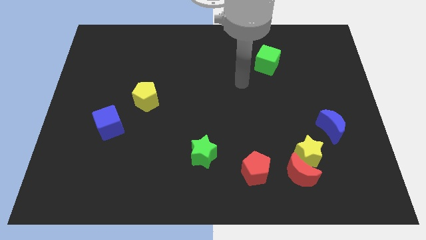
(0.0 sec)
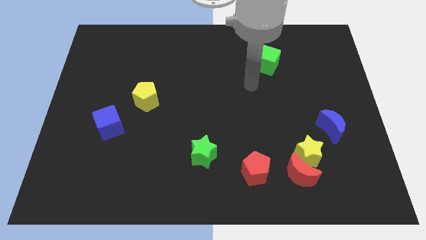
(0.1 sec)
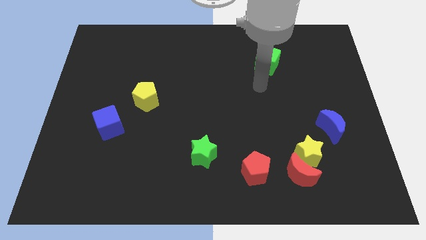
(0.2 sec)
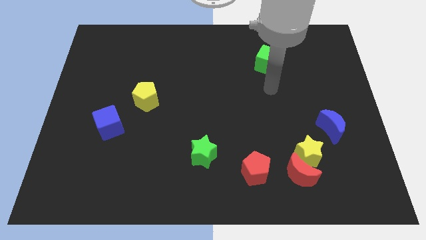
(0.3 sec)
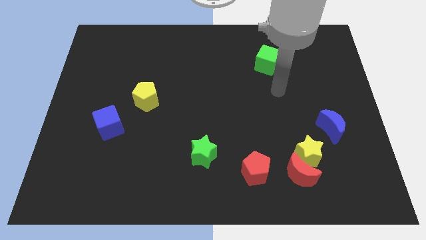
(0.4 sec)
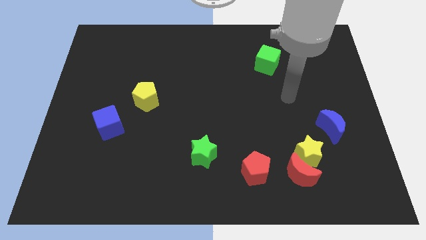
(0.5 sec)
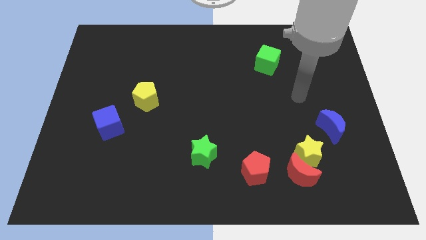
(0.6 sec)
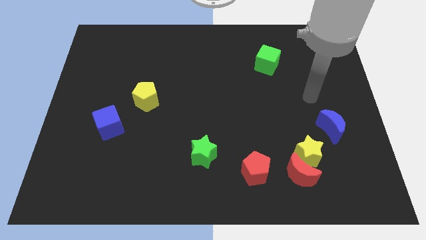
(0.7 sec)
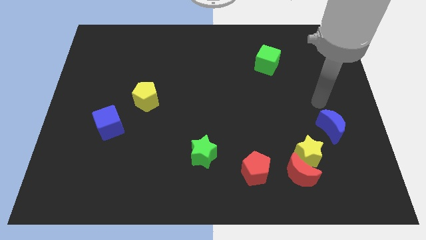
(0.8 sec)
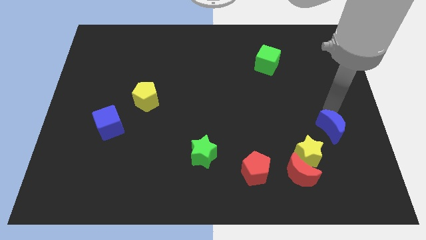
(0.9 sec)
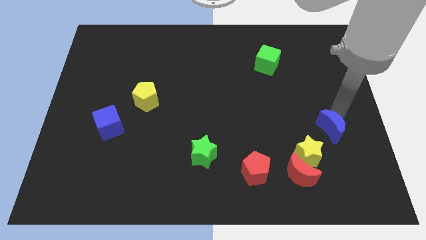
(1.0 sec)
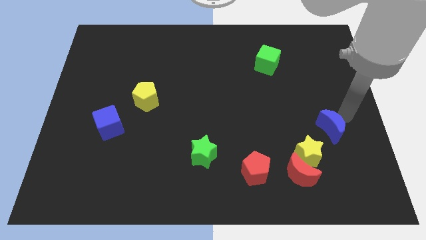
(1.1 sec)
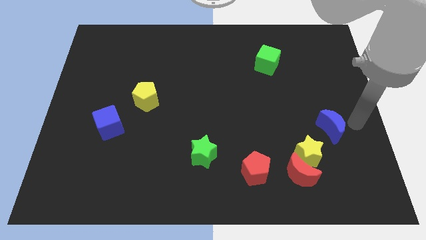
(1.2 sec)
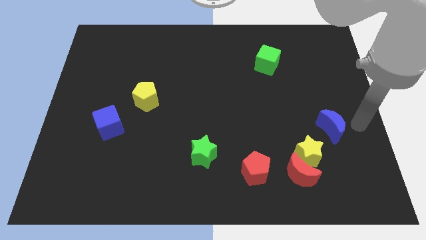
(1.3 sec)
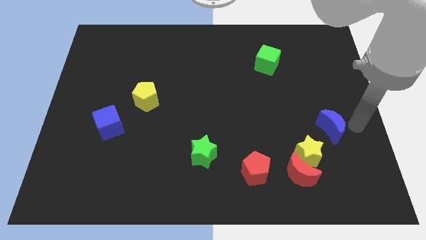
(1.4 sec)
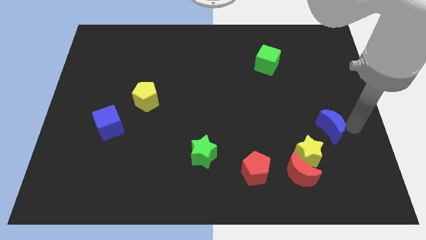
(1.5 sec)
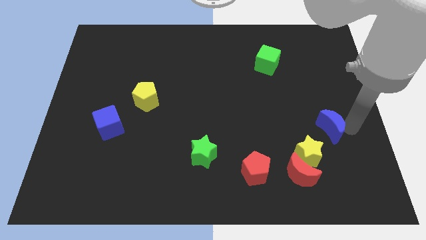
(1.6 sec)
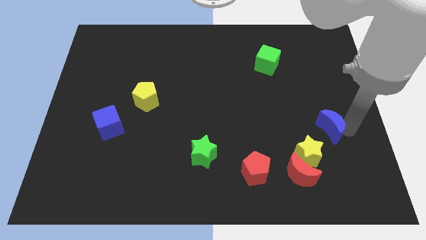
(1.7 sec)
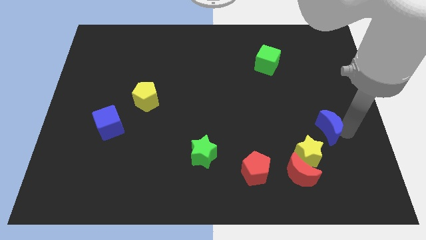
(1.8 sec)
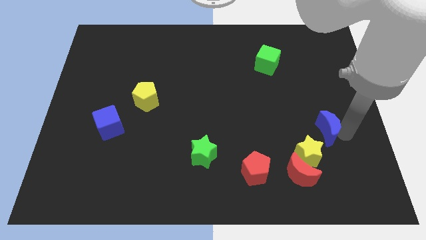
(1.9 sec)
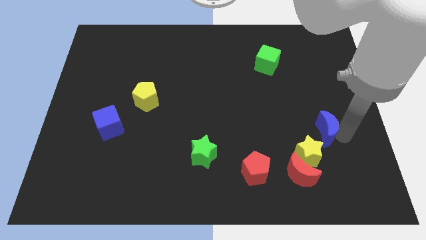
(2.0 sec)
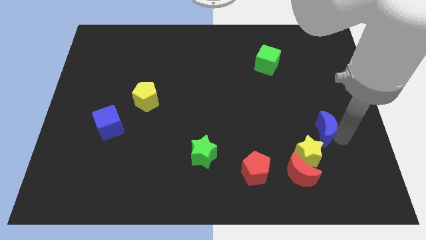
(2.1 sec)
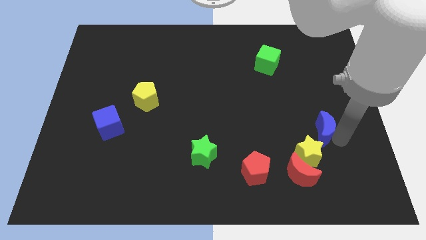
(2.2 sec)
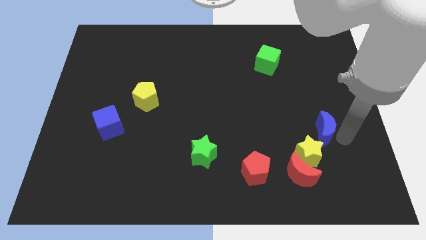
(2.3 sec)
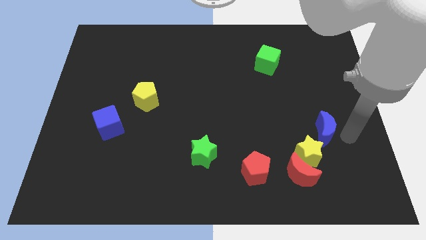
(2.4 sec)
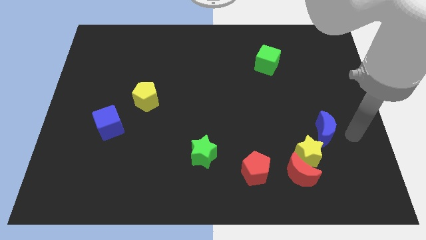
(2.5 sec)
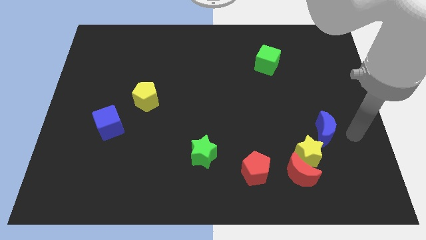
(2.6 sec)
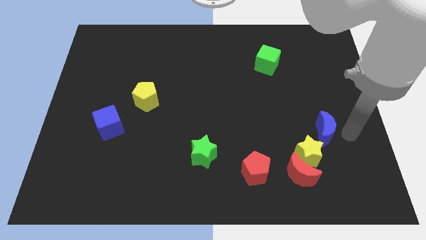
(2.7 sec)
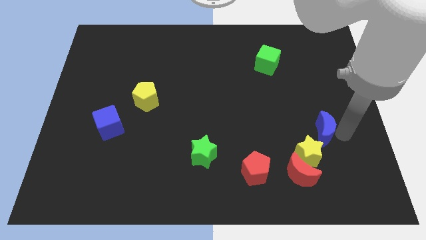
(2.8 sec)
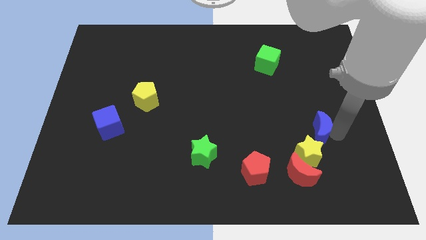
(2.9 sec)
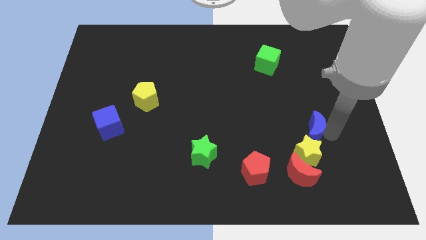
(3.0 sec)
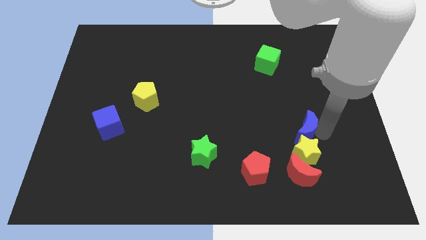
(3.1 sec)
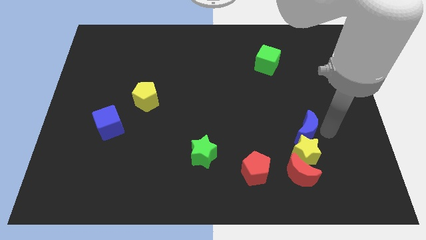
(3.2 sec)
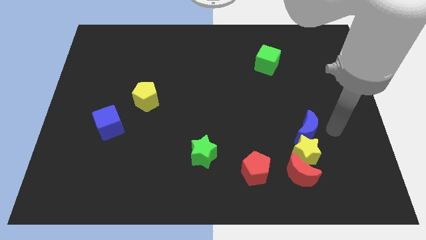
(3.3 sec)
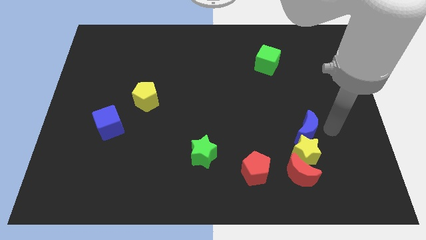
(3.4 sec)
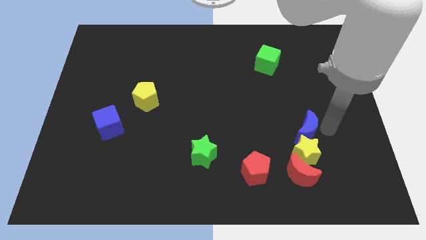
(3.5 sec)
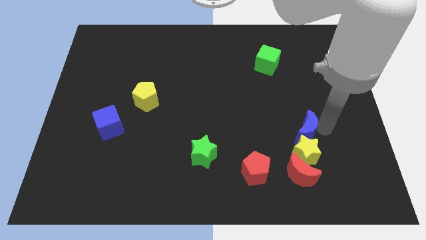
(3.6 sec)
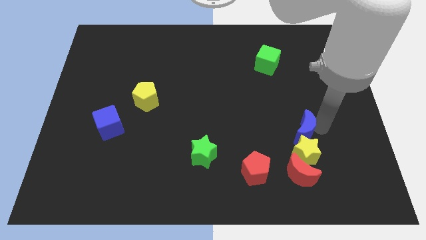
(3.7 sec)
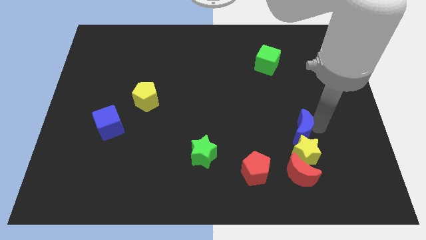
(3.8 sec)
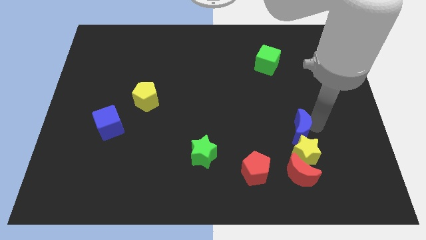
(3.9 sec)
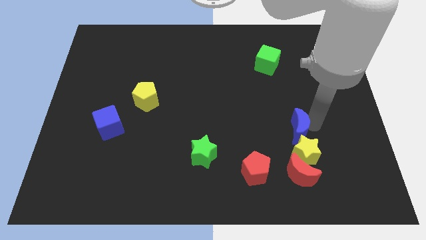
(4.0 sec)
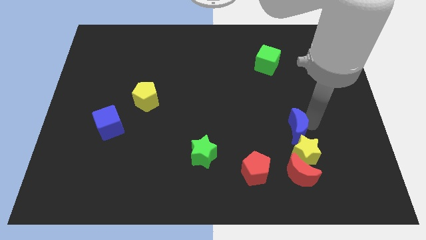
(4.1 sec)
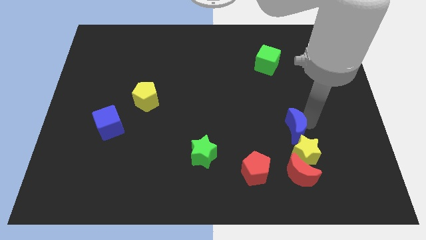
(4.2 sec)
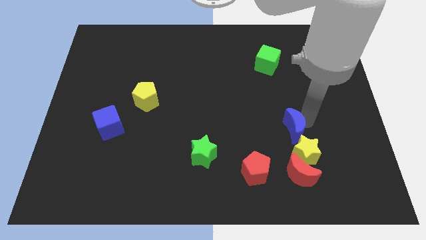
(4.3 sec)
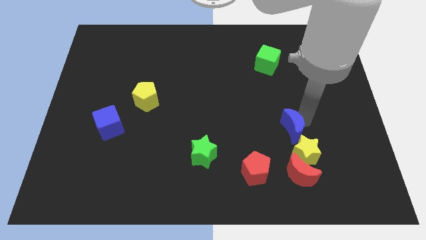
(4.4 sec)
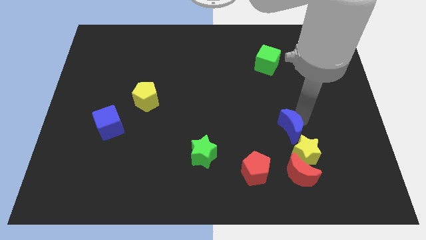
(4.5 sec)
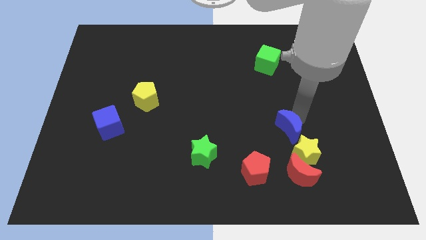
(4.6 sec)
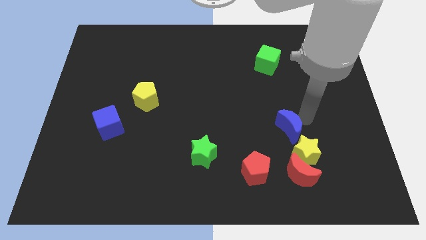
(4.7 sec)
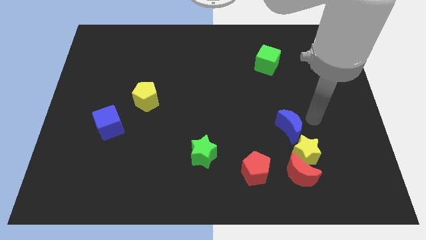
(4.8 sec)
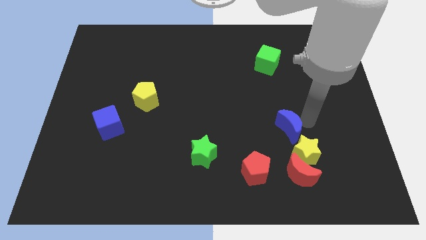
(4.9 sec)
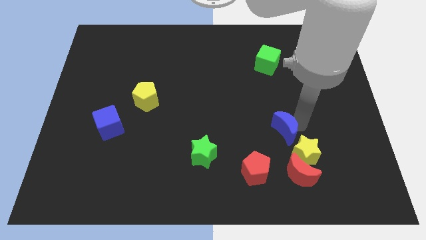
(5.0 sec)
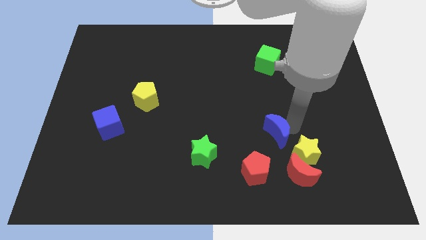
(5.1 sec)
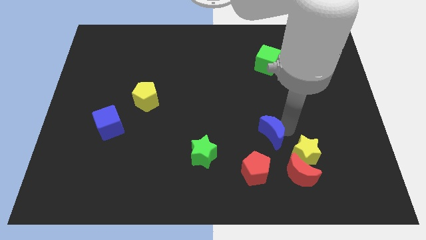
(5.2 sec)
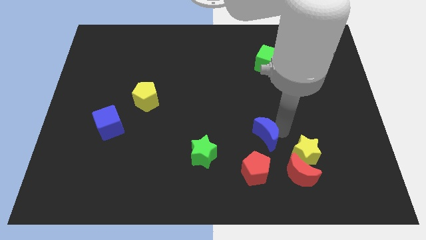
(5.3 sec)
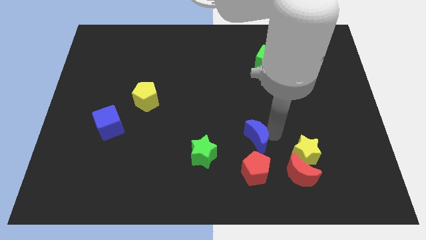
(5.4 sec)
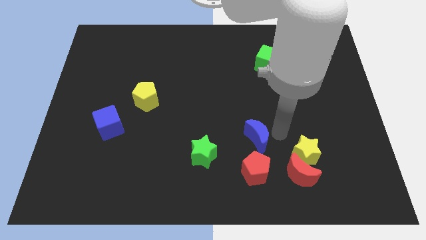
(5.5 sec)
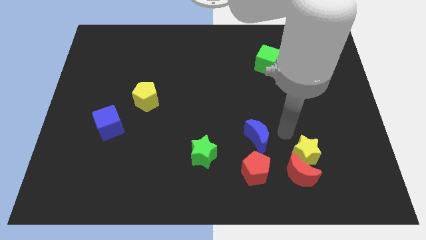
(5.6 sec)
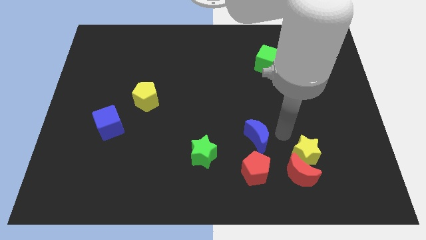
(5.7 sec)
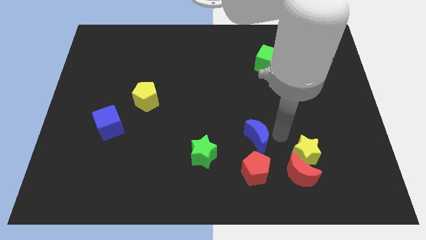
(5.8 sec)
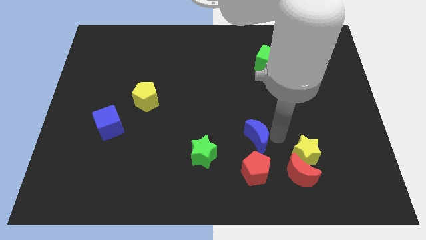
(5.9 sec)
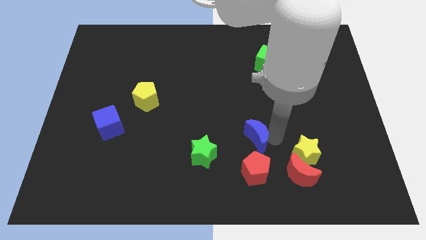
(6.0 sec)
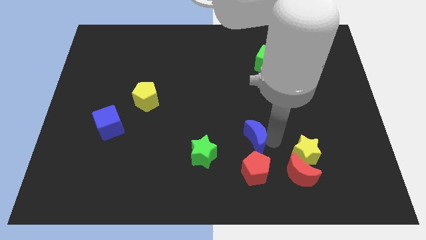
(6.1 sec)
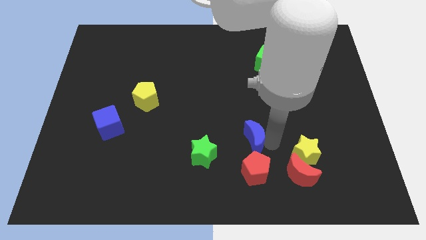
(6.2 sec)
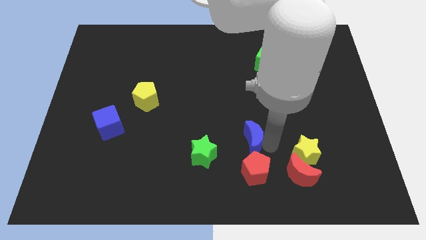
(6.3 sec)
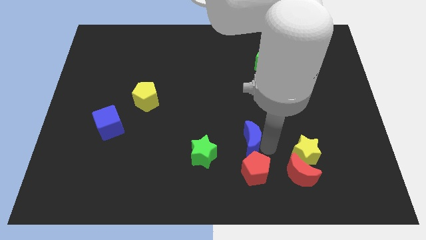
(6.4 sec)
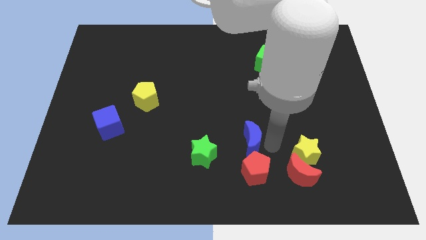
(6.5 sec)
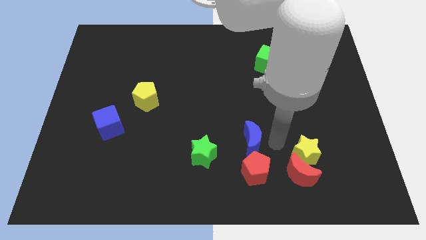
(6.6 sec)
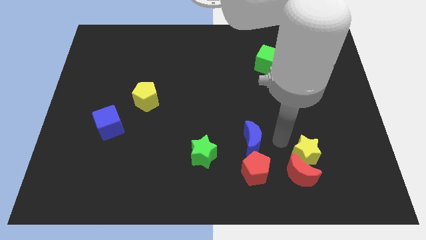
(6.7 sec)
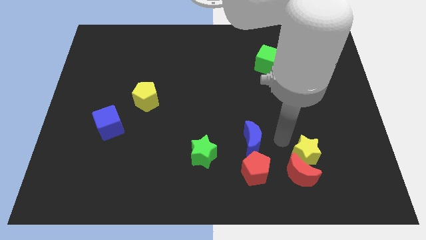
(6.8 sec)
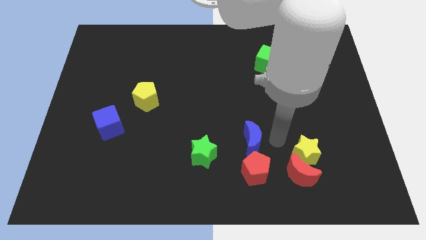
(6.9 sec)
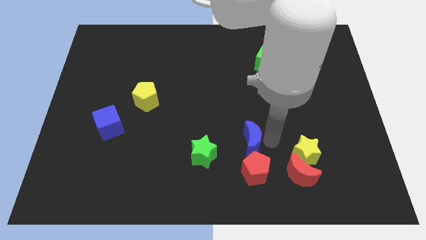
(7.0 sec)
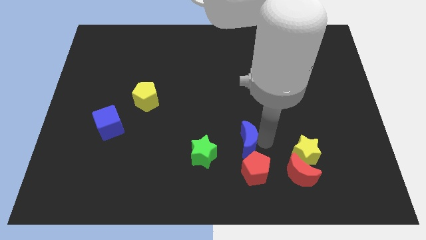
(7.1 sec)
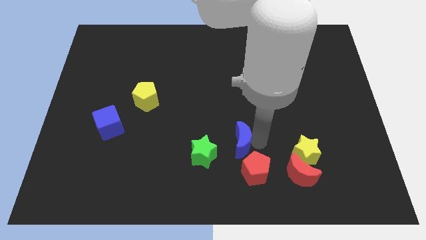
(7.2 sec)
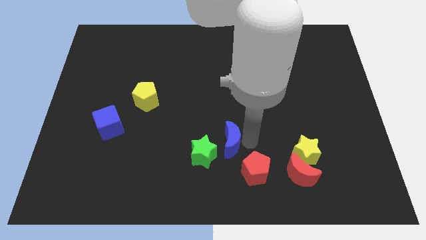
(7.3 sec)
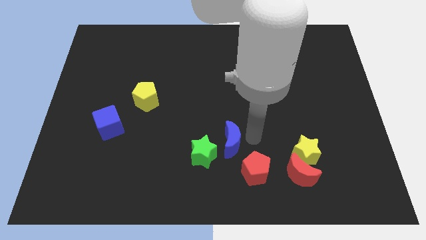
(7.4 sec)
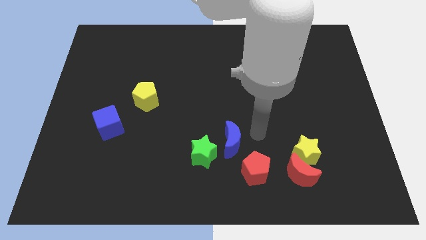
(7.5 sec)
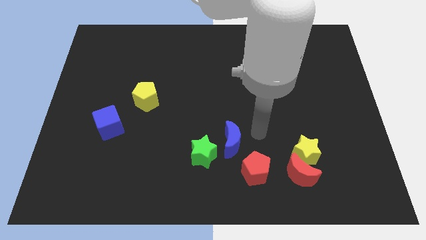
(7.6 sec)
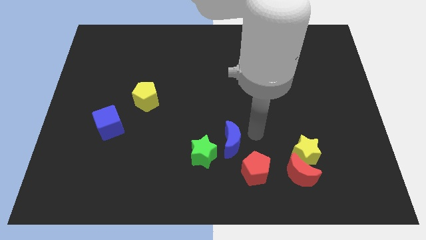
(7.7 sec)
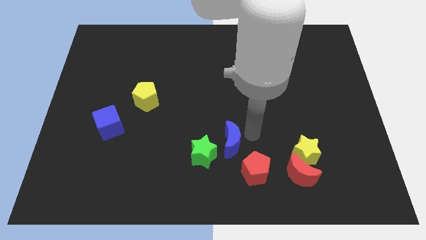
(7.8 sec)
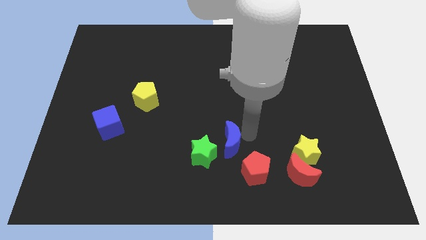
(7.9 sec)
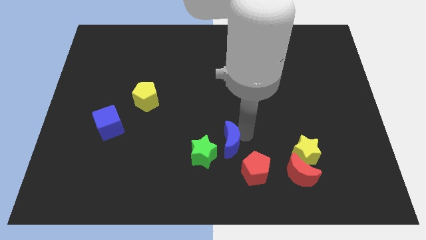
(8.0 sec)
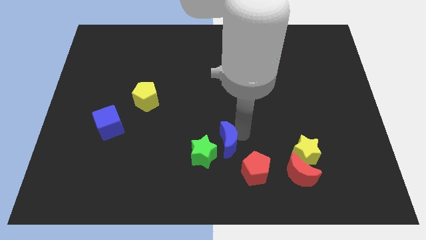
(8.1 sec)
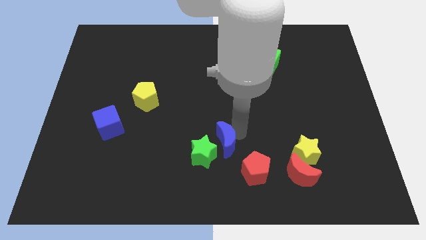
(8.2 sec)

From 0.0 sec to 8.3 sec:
slide the blue moon next to the green star
